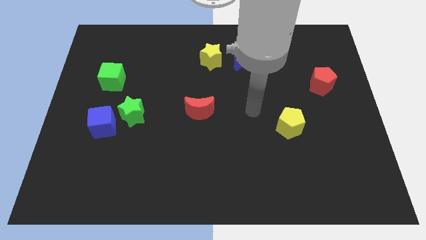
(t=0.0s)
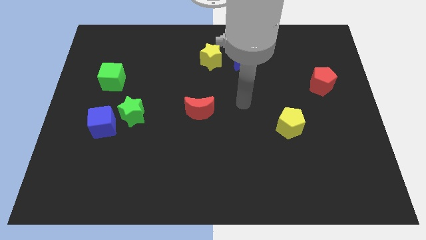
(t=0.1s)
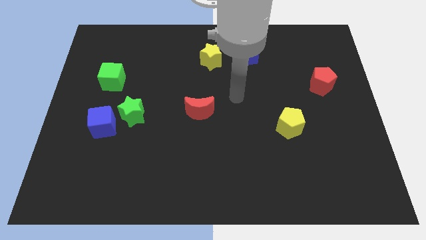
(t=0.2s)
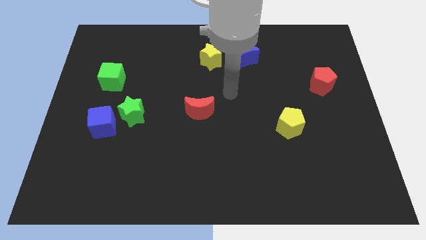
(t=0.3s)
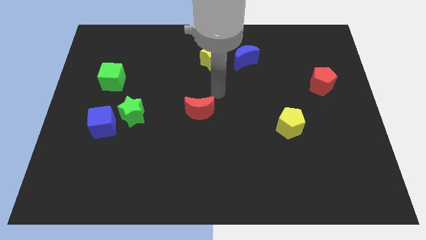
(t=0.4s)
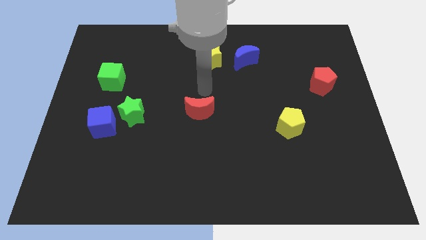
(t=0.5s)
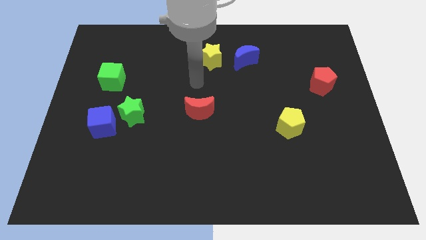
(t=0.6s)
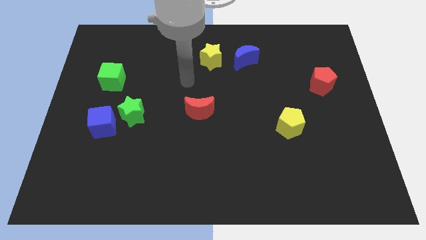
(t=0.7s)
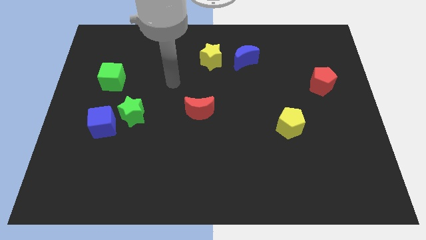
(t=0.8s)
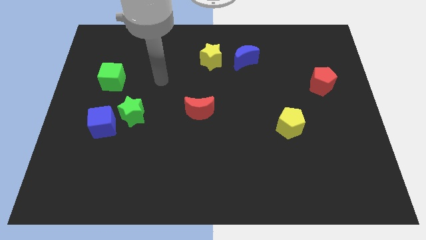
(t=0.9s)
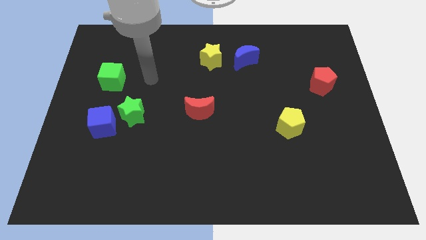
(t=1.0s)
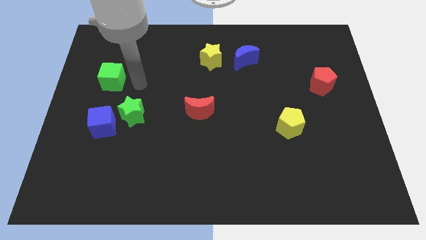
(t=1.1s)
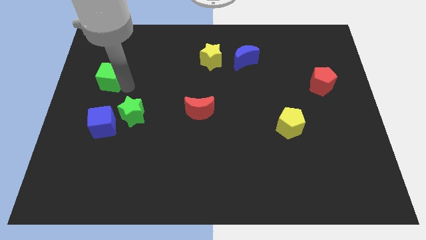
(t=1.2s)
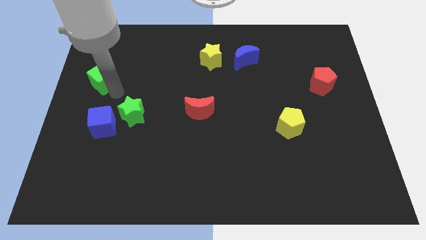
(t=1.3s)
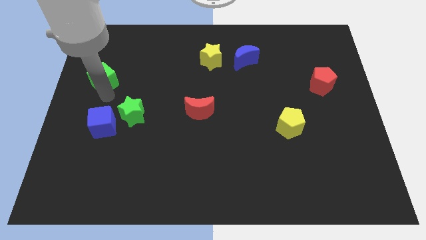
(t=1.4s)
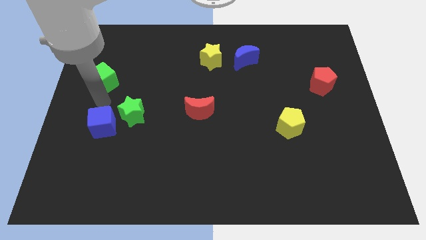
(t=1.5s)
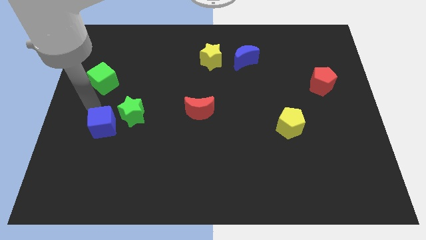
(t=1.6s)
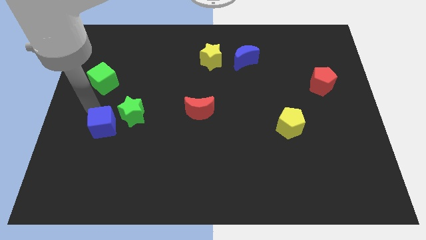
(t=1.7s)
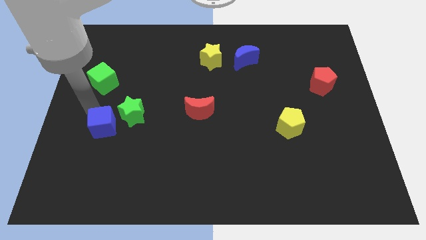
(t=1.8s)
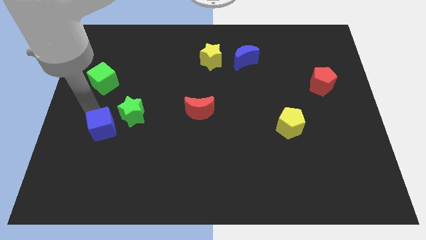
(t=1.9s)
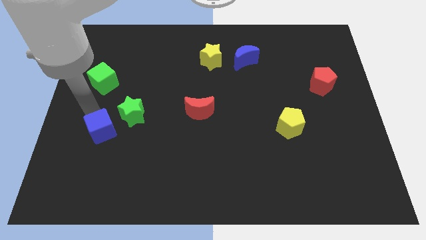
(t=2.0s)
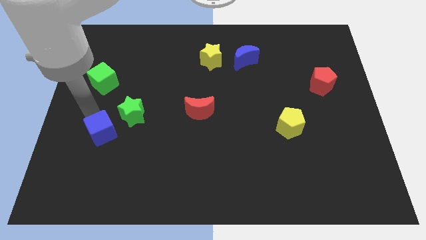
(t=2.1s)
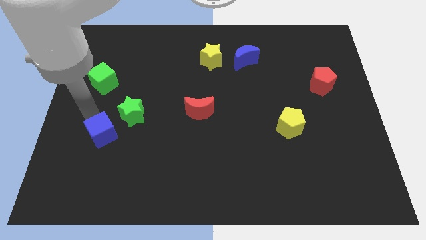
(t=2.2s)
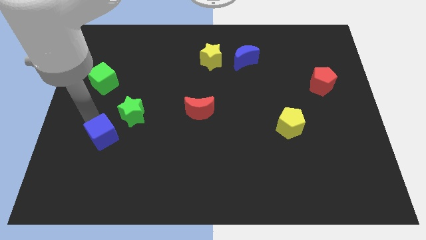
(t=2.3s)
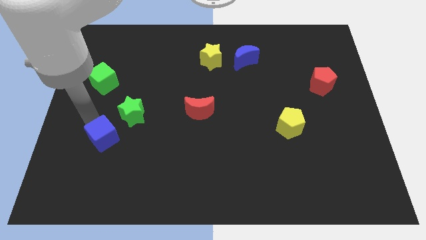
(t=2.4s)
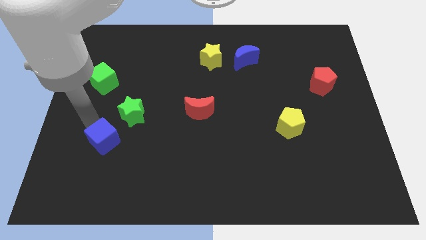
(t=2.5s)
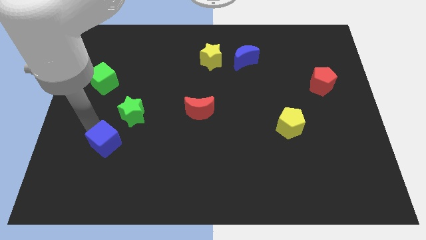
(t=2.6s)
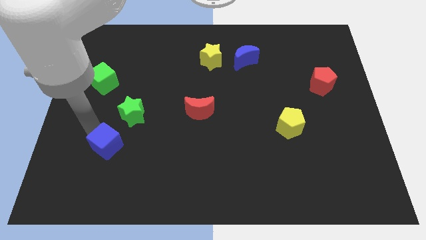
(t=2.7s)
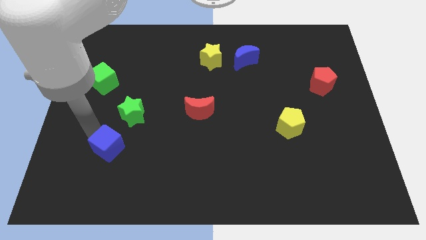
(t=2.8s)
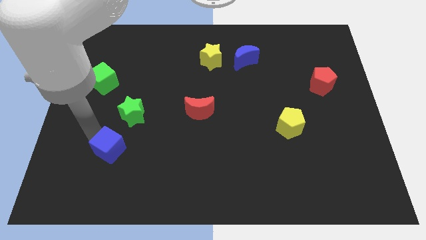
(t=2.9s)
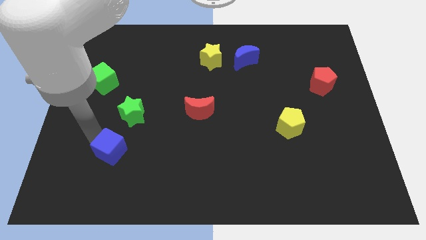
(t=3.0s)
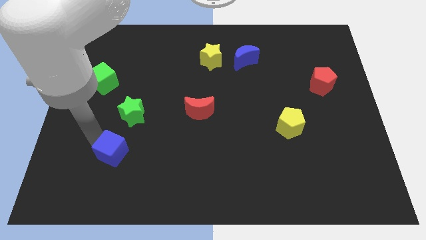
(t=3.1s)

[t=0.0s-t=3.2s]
move the blue cube diagonally downwards and to the right slightly

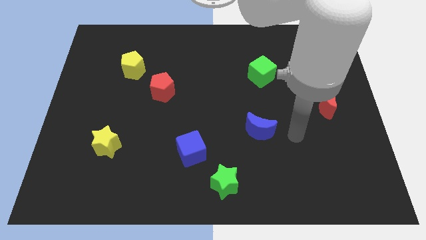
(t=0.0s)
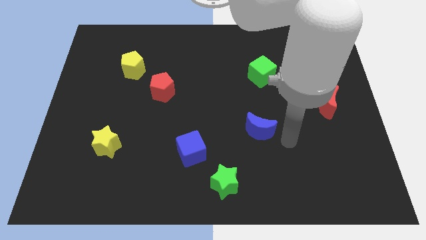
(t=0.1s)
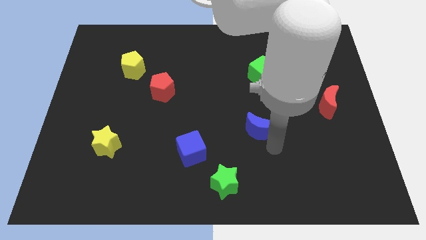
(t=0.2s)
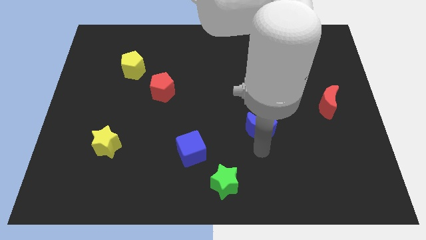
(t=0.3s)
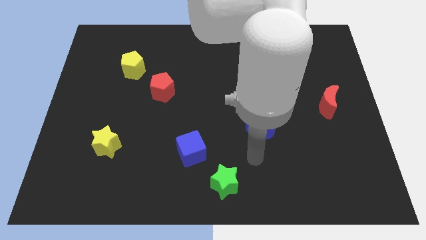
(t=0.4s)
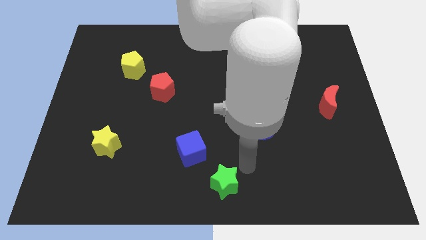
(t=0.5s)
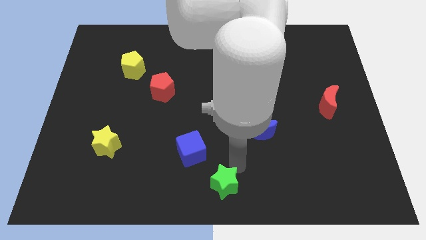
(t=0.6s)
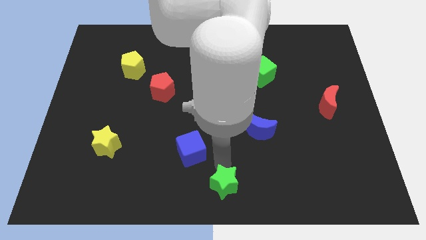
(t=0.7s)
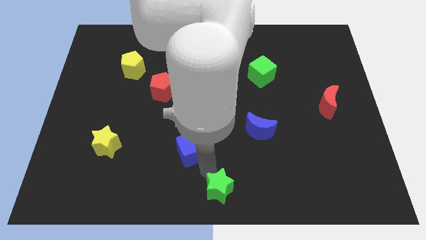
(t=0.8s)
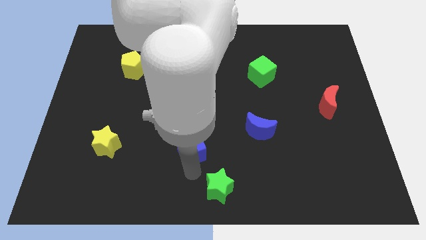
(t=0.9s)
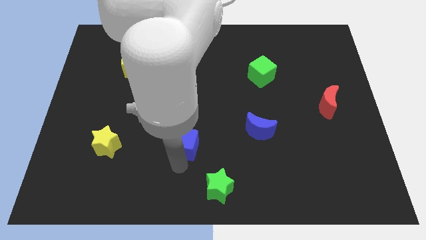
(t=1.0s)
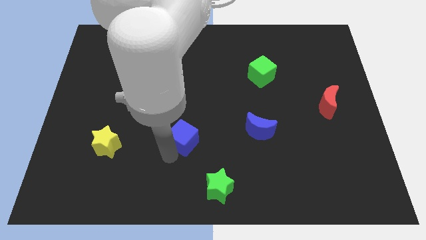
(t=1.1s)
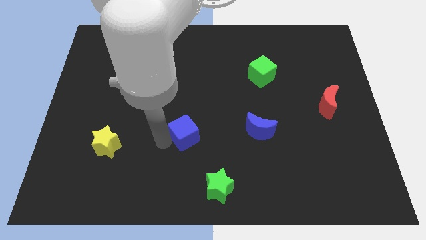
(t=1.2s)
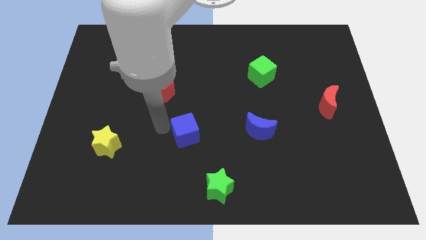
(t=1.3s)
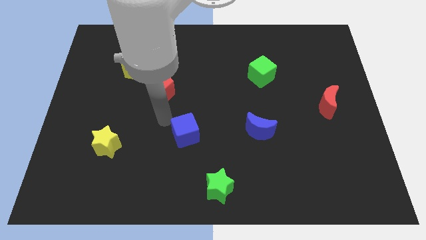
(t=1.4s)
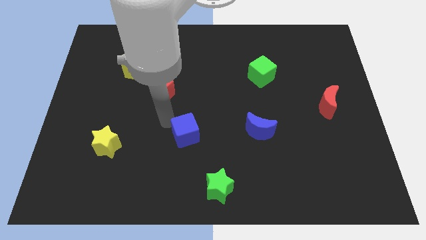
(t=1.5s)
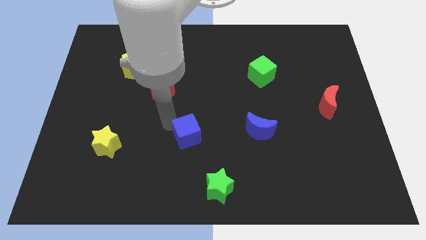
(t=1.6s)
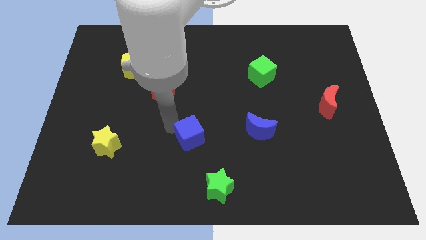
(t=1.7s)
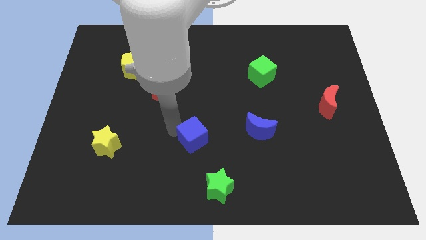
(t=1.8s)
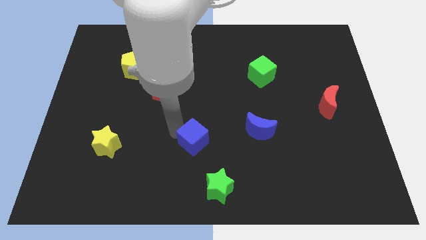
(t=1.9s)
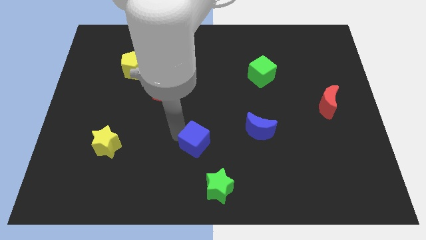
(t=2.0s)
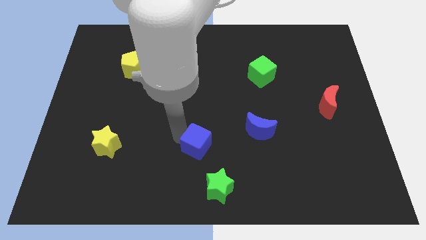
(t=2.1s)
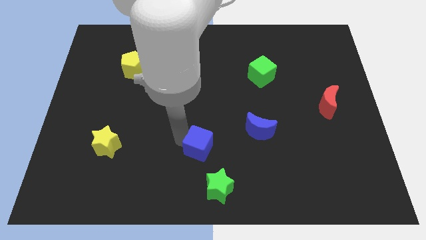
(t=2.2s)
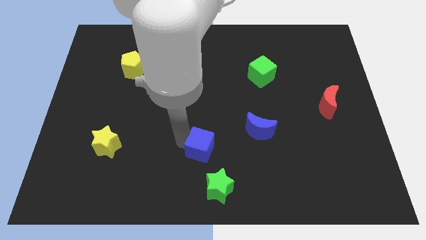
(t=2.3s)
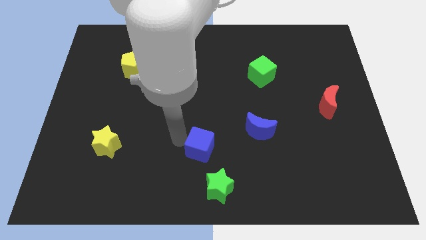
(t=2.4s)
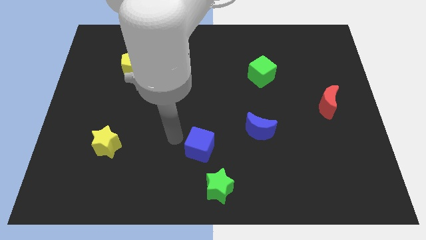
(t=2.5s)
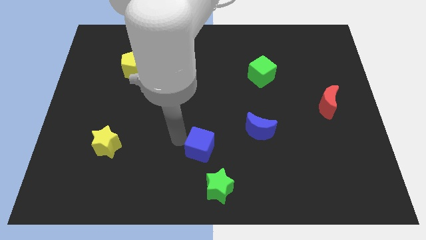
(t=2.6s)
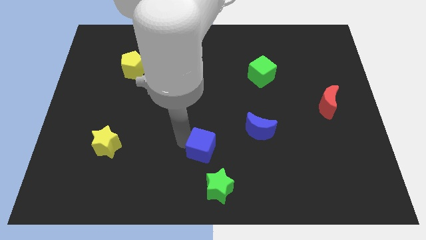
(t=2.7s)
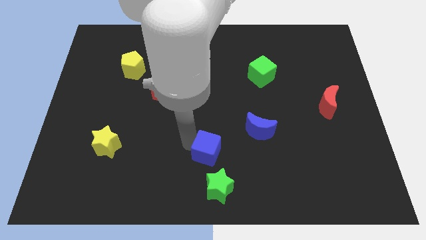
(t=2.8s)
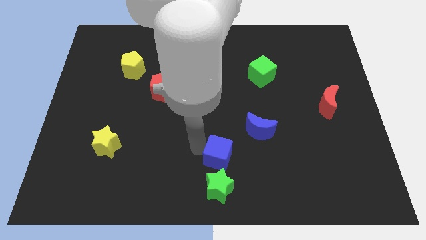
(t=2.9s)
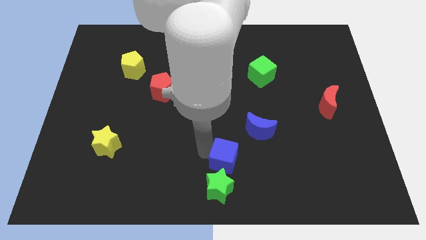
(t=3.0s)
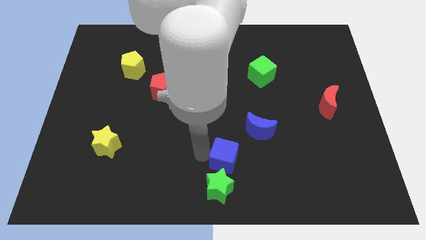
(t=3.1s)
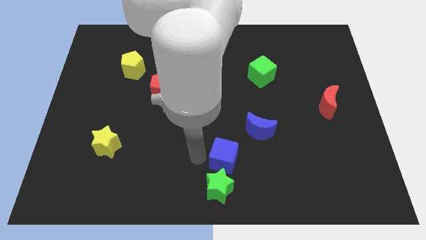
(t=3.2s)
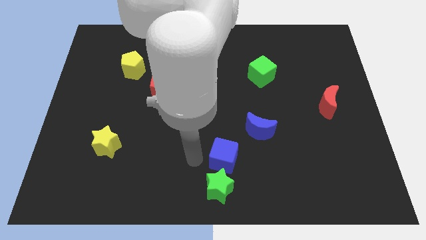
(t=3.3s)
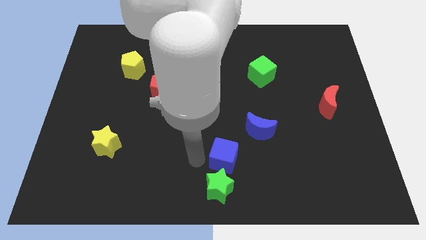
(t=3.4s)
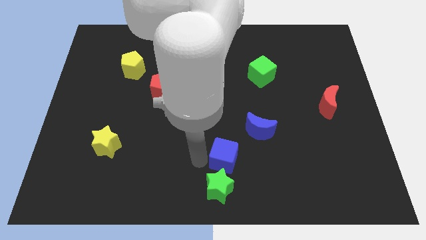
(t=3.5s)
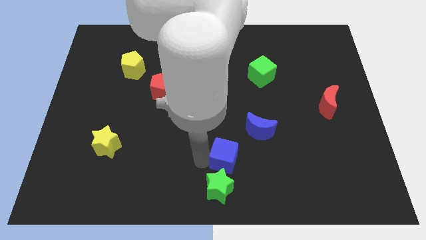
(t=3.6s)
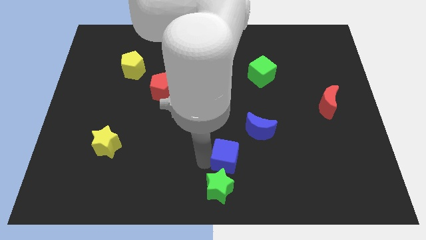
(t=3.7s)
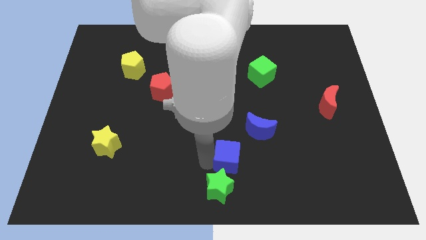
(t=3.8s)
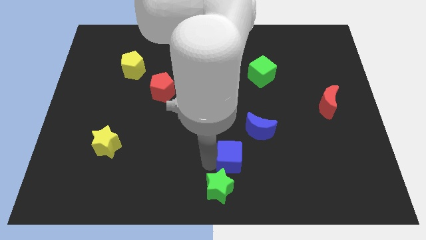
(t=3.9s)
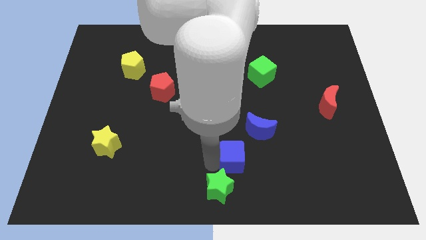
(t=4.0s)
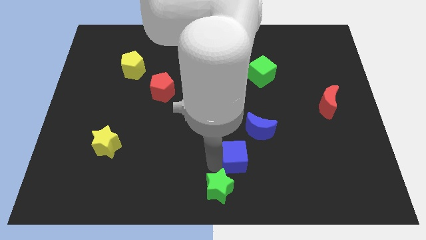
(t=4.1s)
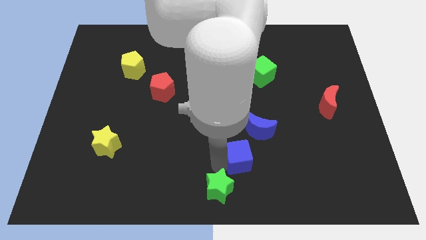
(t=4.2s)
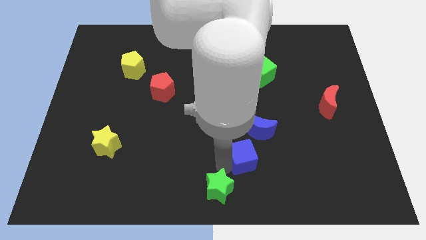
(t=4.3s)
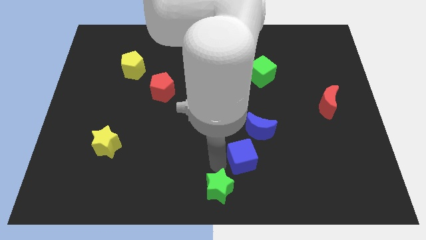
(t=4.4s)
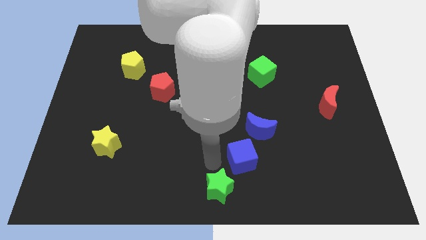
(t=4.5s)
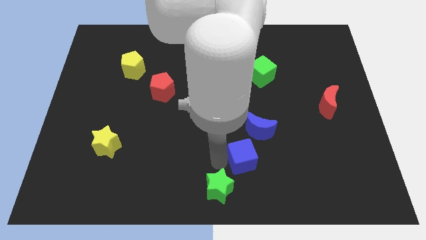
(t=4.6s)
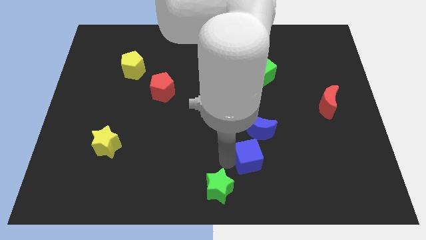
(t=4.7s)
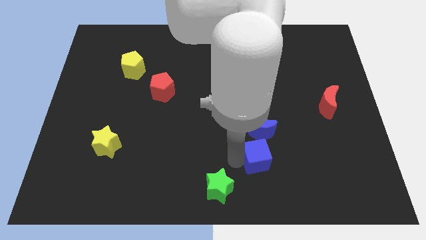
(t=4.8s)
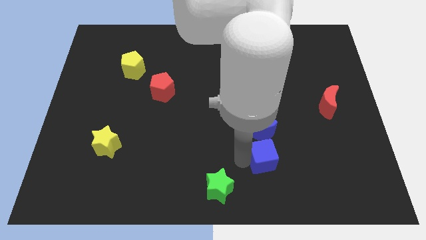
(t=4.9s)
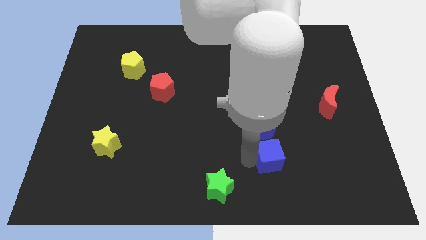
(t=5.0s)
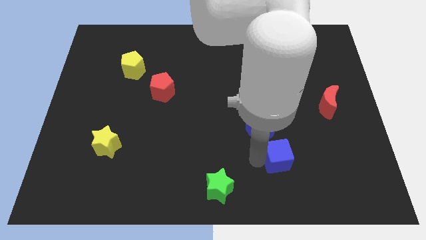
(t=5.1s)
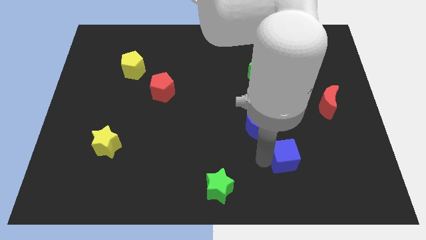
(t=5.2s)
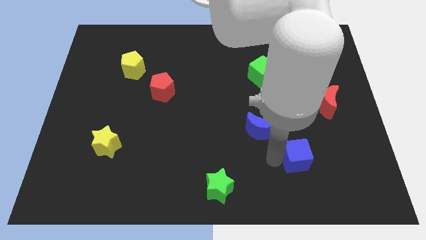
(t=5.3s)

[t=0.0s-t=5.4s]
slide the blue cube to the right
